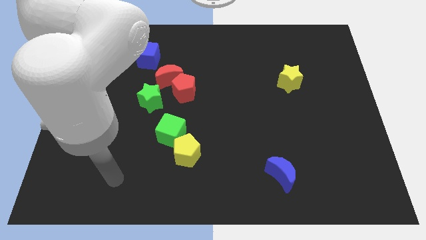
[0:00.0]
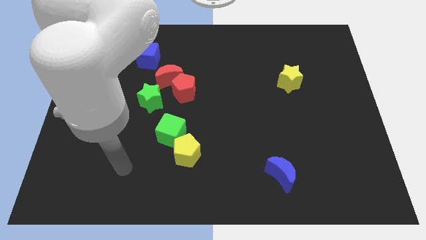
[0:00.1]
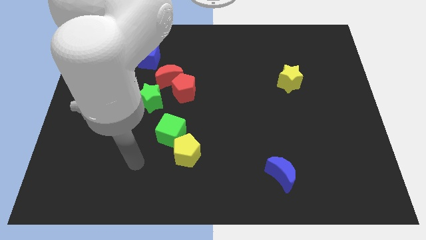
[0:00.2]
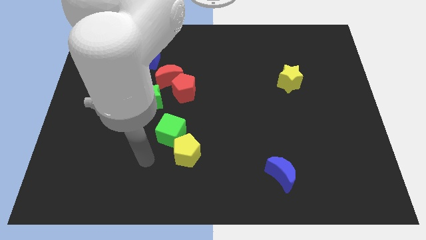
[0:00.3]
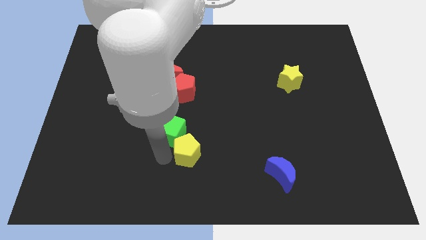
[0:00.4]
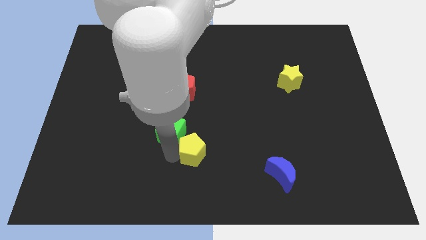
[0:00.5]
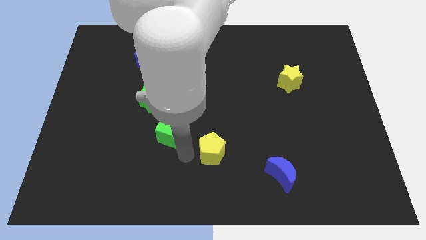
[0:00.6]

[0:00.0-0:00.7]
pull the green cube apart from the yellow pentagon

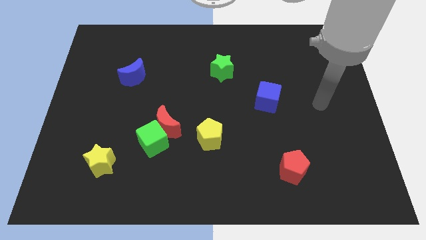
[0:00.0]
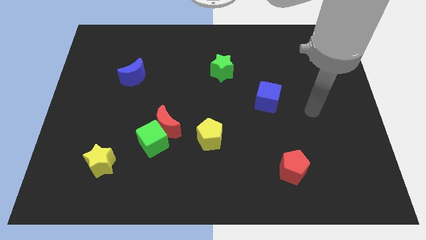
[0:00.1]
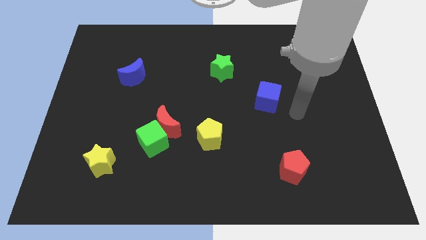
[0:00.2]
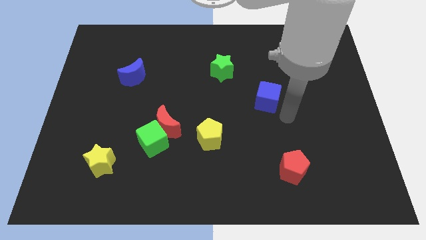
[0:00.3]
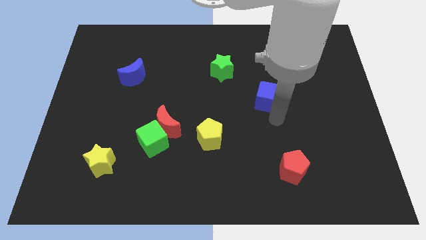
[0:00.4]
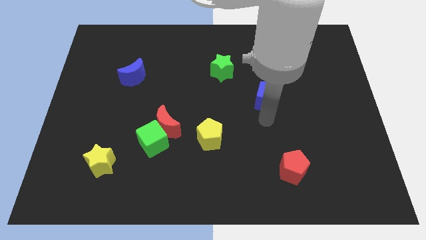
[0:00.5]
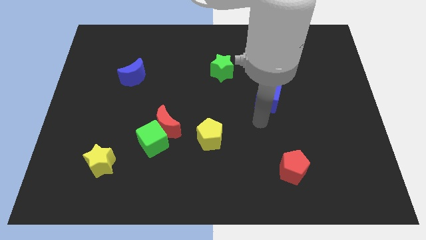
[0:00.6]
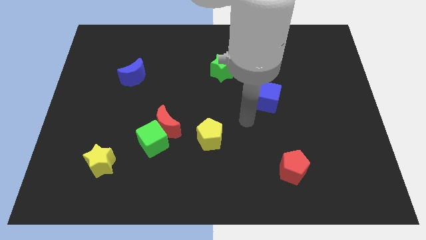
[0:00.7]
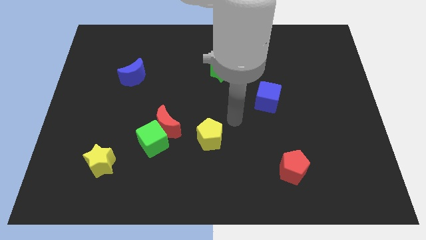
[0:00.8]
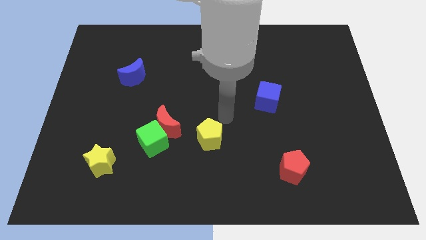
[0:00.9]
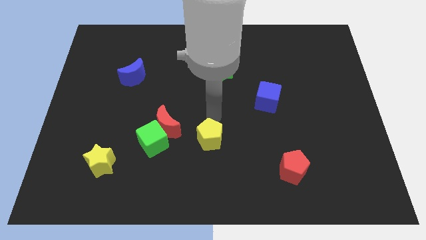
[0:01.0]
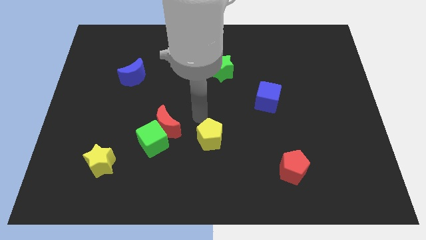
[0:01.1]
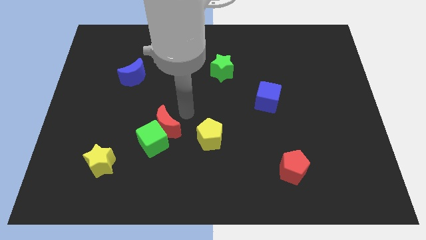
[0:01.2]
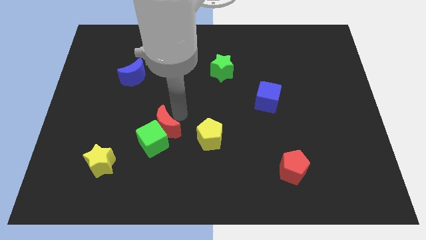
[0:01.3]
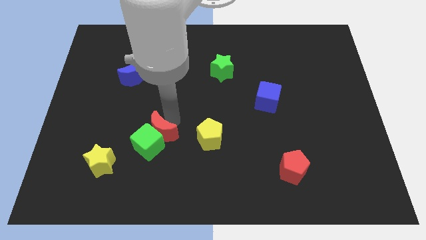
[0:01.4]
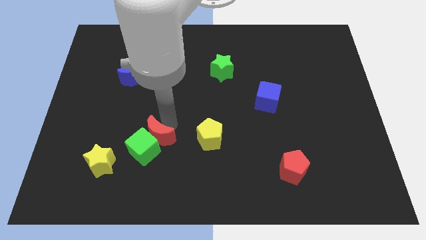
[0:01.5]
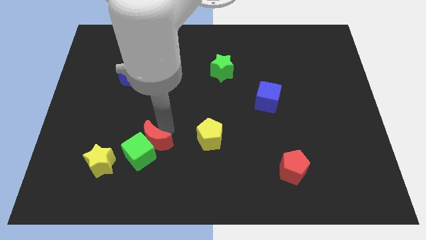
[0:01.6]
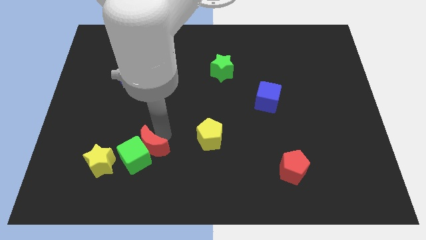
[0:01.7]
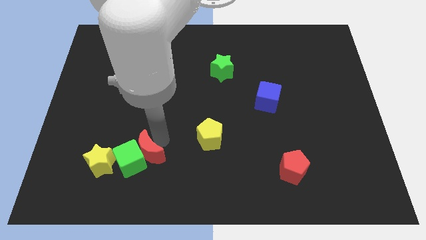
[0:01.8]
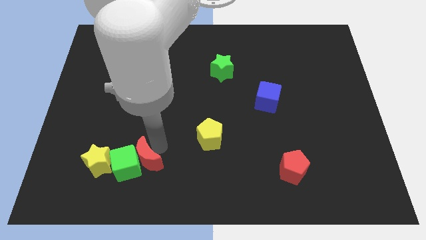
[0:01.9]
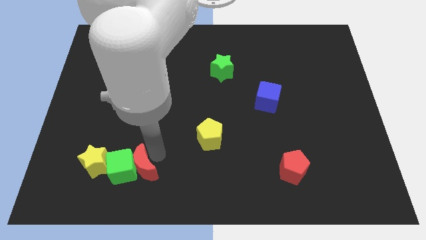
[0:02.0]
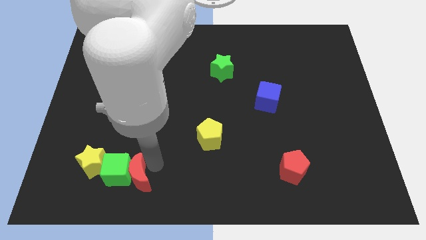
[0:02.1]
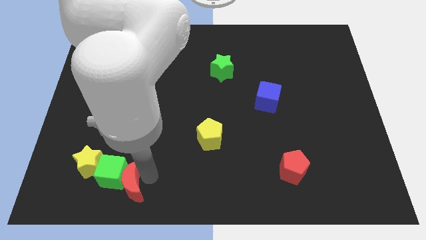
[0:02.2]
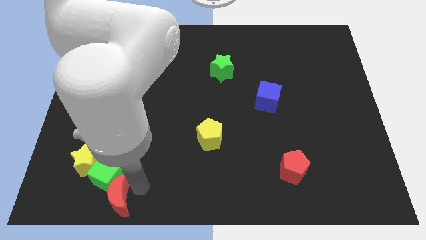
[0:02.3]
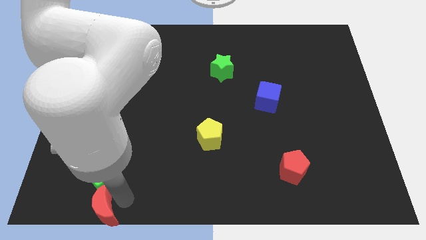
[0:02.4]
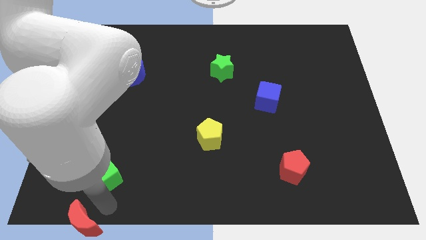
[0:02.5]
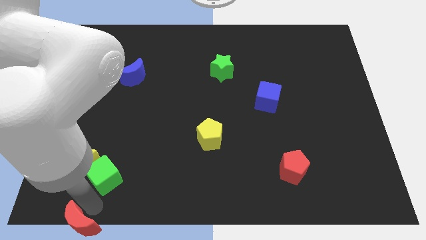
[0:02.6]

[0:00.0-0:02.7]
move the green cube away from the red moon

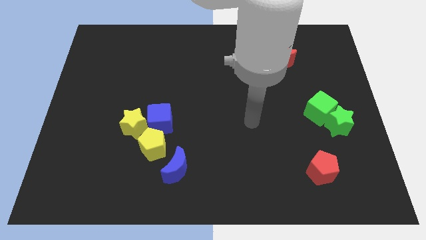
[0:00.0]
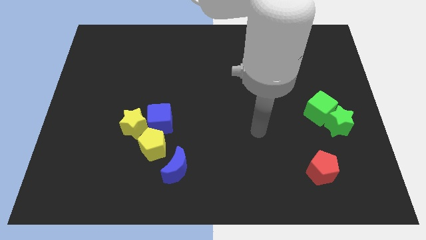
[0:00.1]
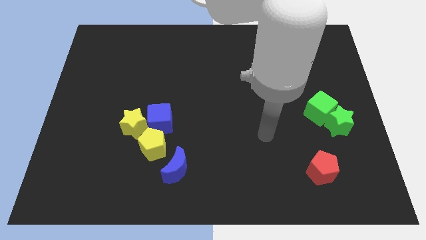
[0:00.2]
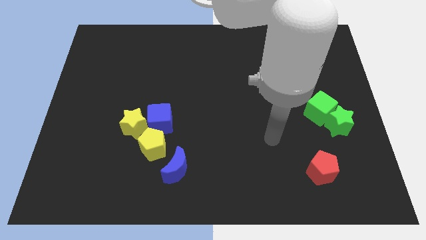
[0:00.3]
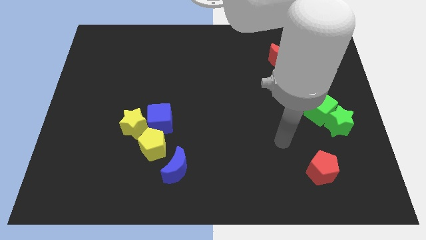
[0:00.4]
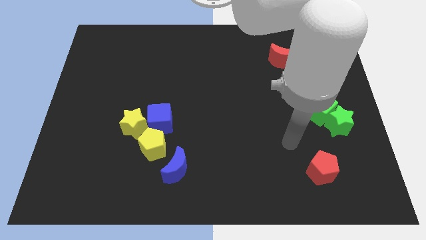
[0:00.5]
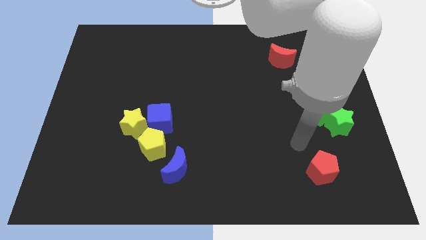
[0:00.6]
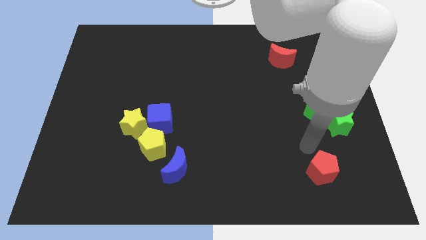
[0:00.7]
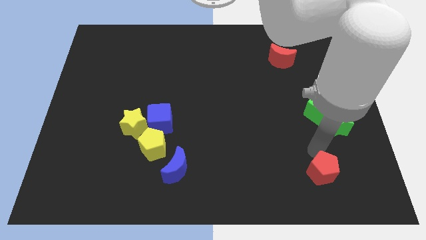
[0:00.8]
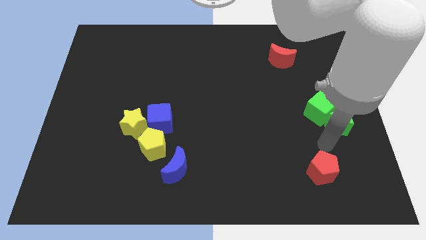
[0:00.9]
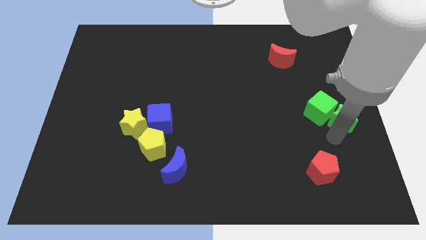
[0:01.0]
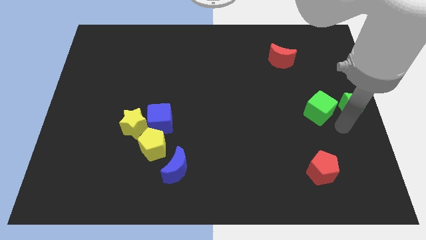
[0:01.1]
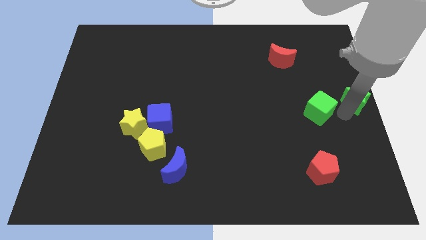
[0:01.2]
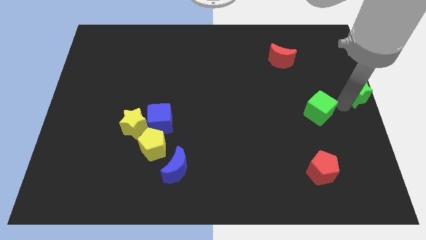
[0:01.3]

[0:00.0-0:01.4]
pull the green cube apart from the green star

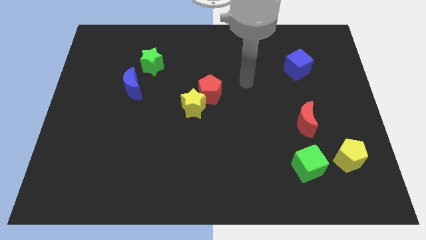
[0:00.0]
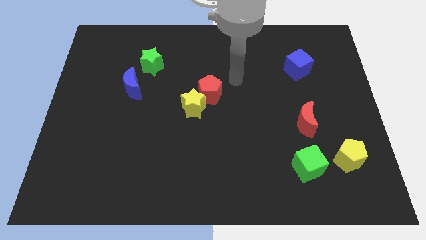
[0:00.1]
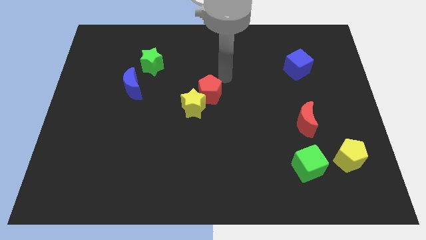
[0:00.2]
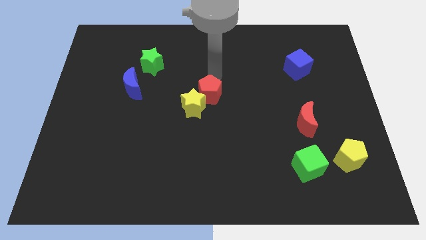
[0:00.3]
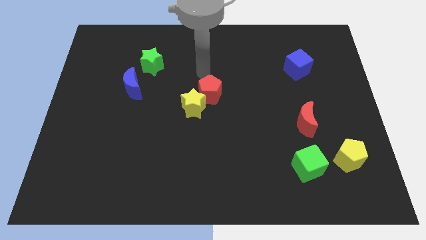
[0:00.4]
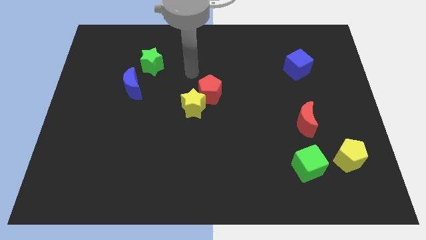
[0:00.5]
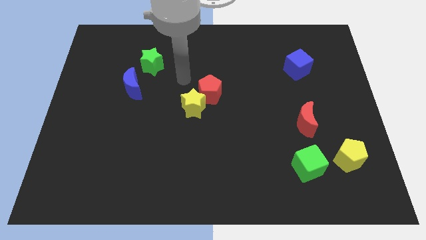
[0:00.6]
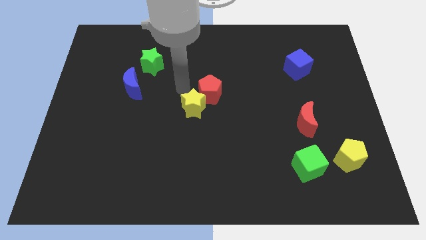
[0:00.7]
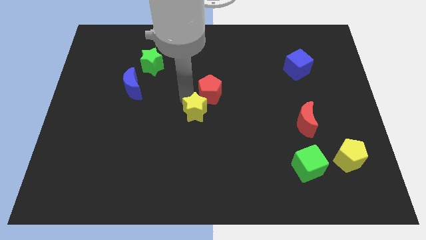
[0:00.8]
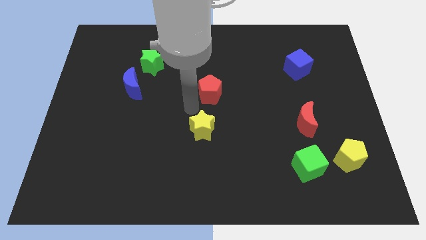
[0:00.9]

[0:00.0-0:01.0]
separate the red pentagon from the yellow star

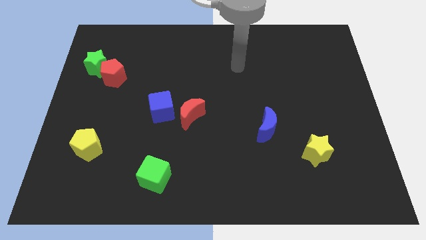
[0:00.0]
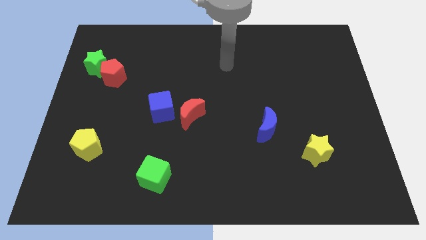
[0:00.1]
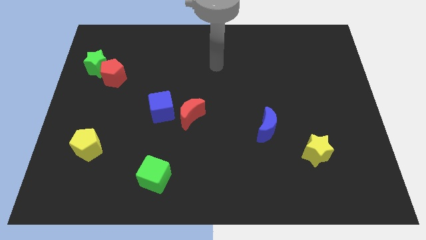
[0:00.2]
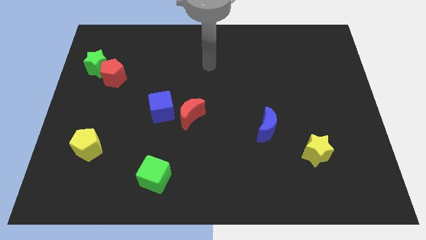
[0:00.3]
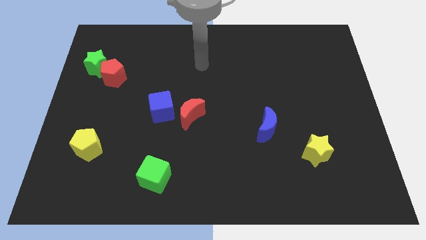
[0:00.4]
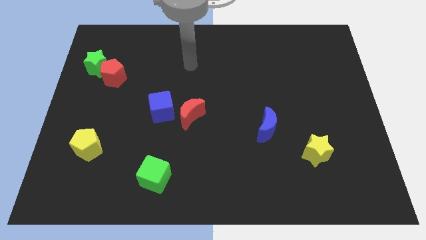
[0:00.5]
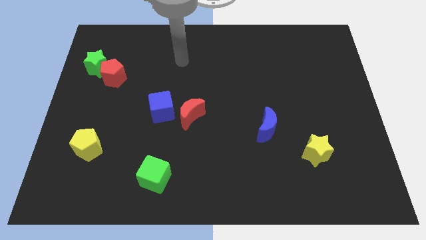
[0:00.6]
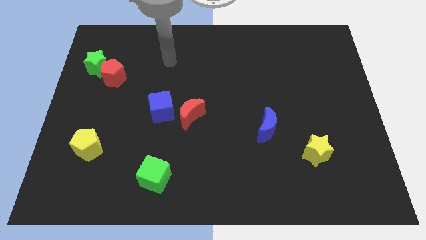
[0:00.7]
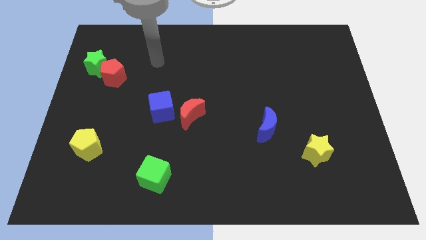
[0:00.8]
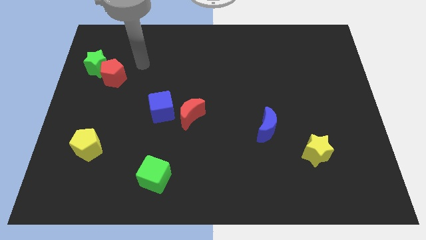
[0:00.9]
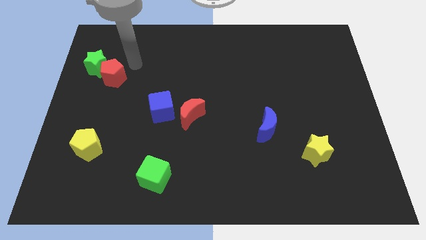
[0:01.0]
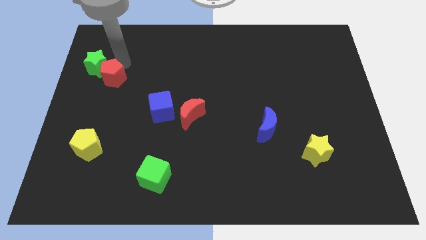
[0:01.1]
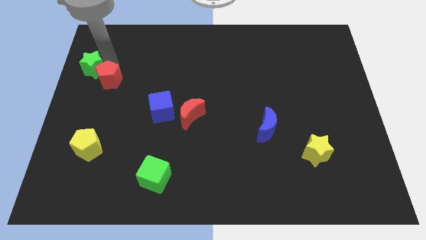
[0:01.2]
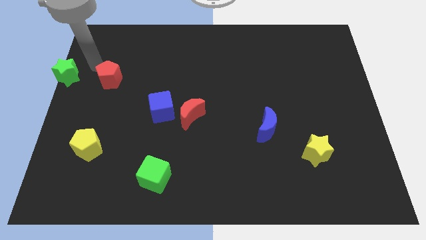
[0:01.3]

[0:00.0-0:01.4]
pull the red pentagon apart from the green star

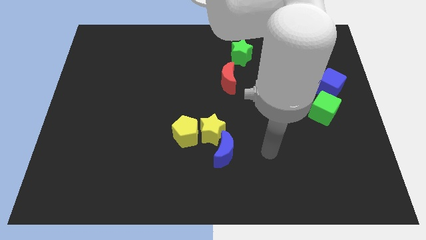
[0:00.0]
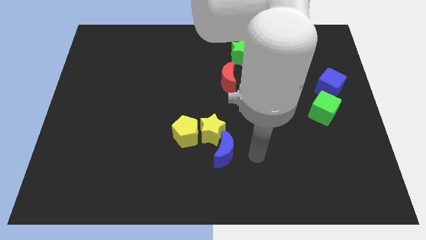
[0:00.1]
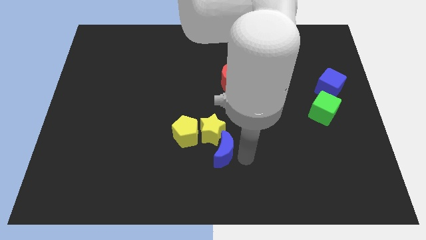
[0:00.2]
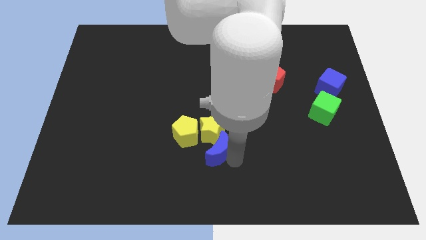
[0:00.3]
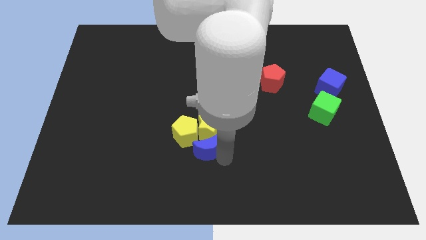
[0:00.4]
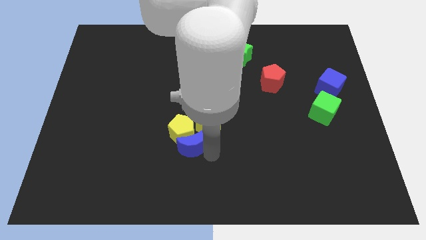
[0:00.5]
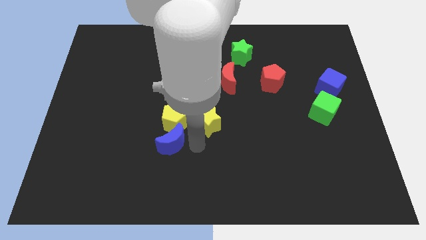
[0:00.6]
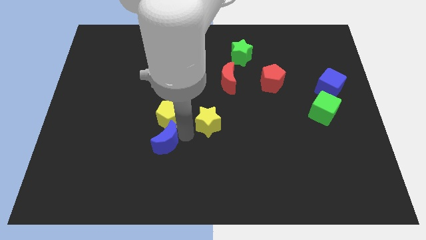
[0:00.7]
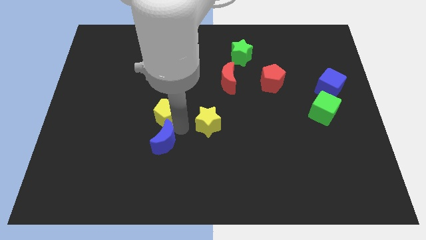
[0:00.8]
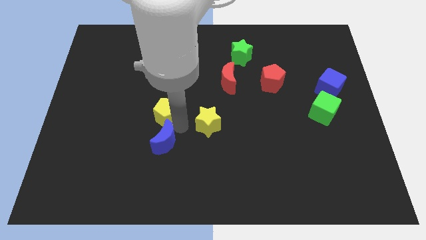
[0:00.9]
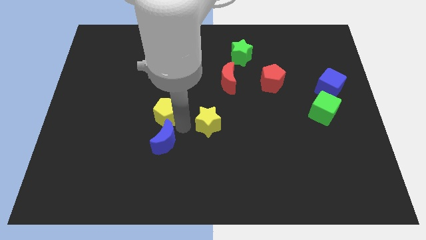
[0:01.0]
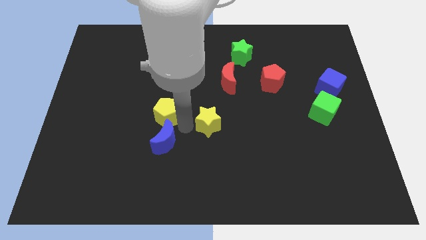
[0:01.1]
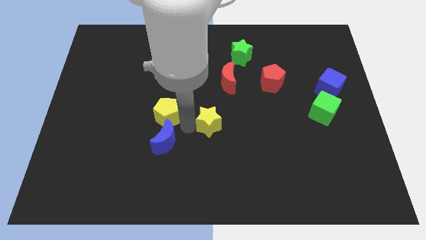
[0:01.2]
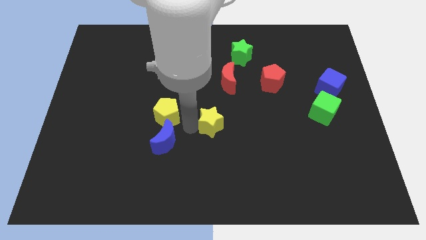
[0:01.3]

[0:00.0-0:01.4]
separate the yellow star from the yellow pentagon and blue moon

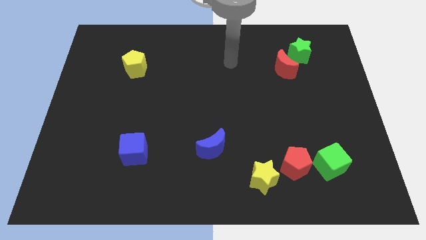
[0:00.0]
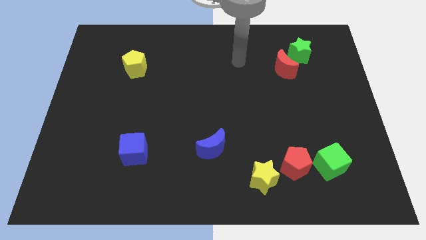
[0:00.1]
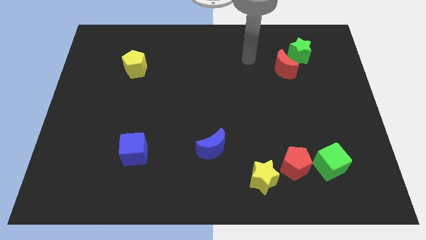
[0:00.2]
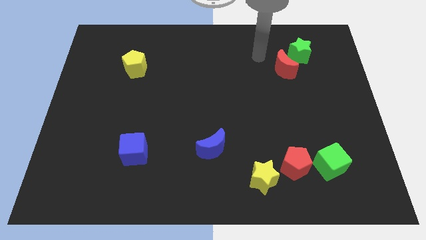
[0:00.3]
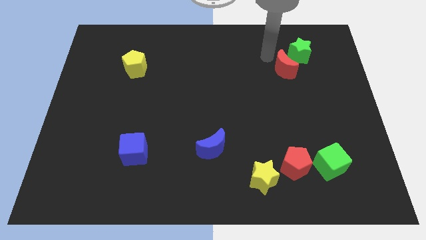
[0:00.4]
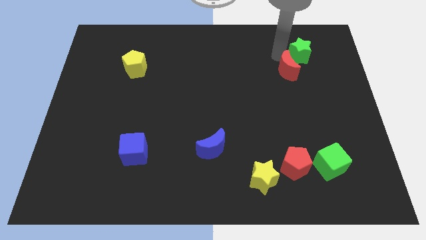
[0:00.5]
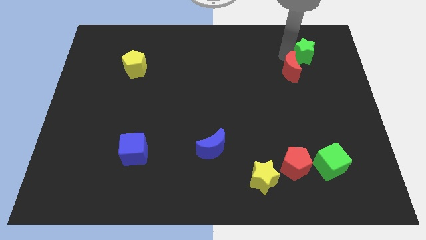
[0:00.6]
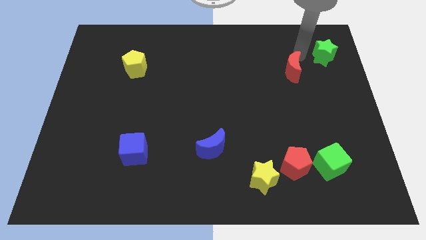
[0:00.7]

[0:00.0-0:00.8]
move the red moon away from the green star
